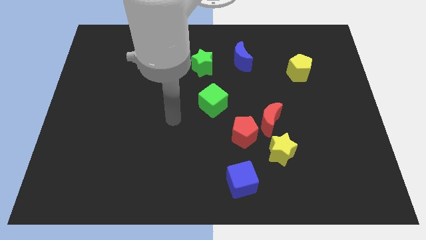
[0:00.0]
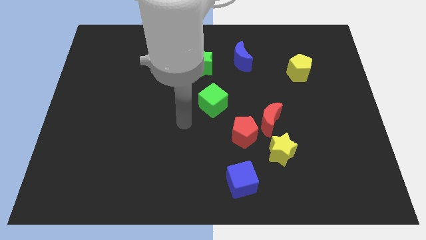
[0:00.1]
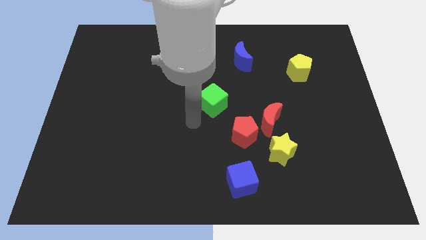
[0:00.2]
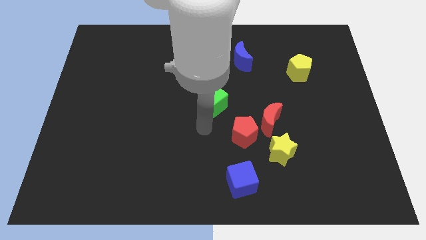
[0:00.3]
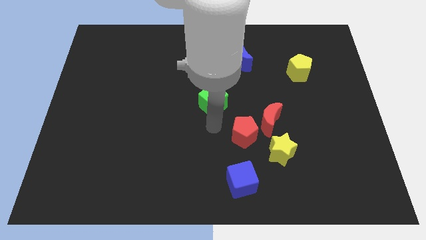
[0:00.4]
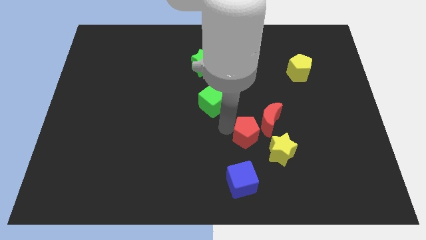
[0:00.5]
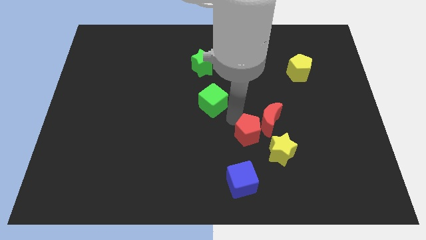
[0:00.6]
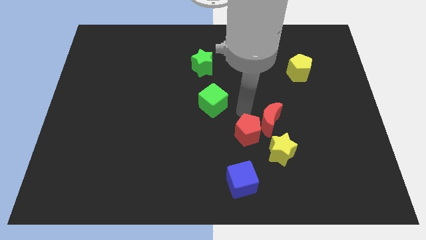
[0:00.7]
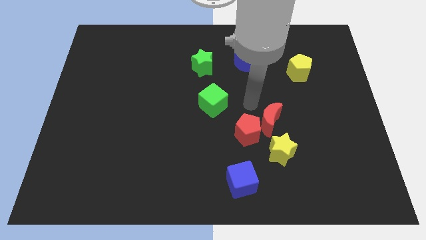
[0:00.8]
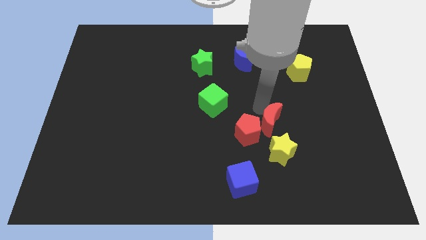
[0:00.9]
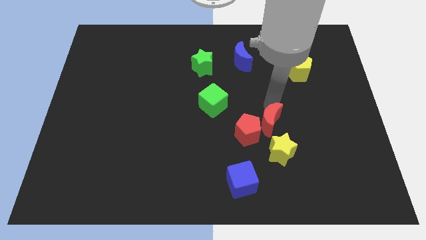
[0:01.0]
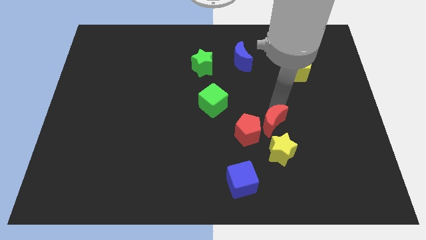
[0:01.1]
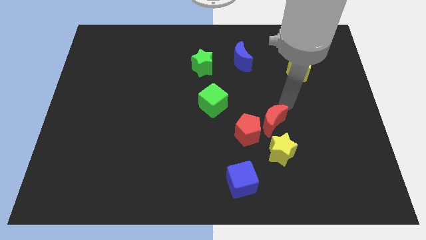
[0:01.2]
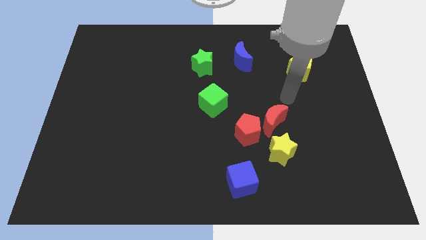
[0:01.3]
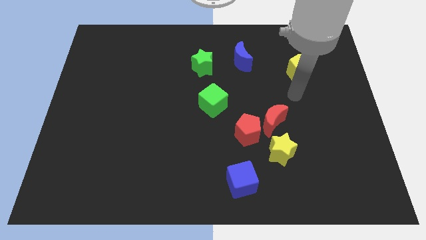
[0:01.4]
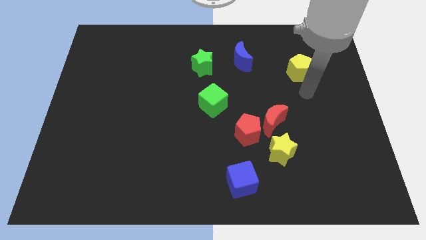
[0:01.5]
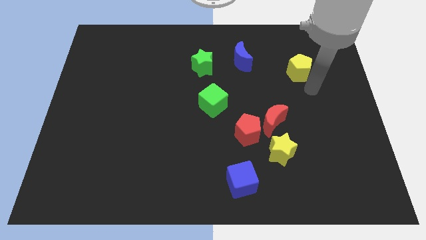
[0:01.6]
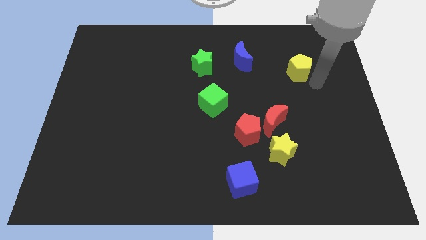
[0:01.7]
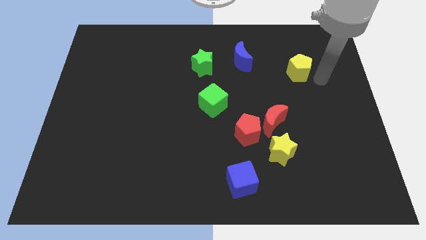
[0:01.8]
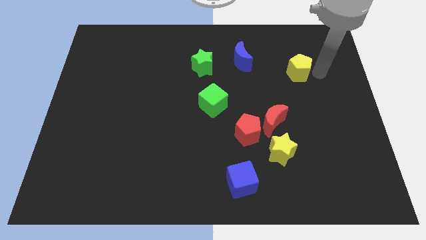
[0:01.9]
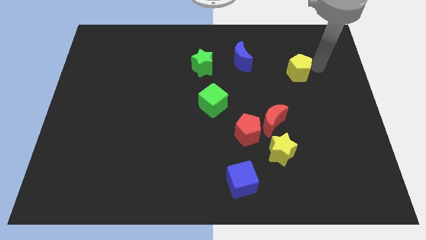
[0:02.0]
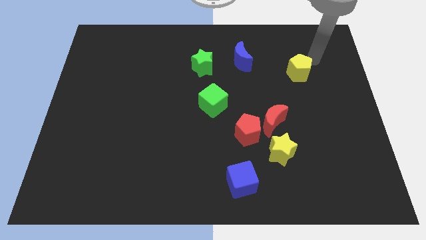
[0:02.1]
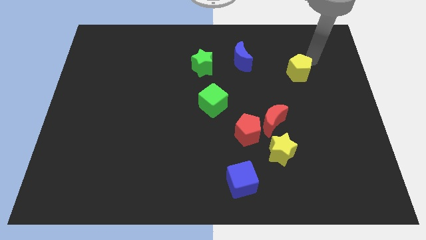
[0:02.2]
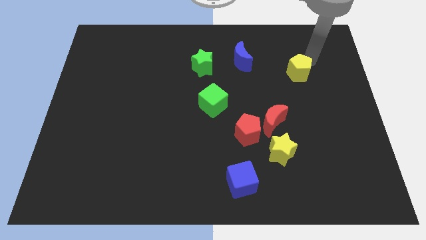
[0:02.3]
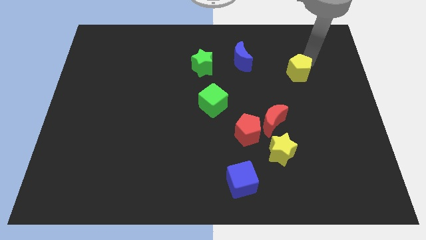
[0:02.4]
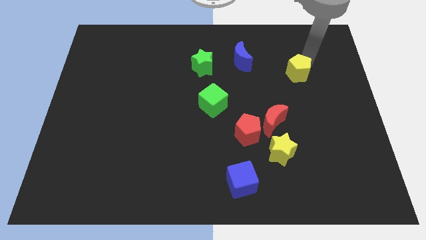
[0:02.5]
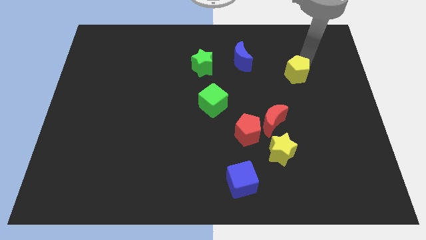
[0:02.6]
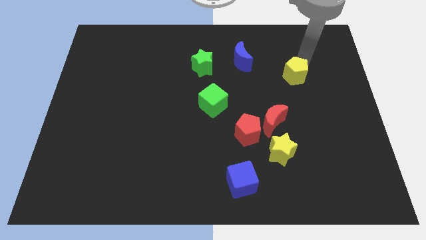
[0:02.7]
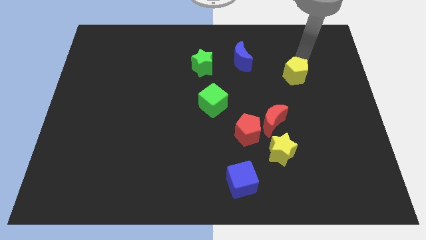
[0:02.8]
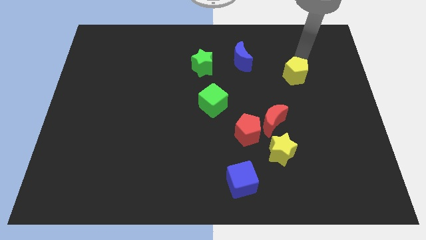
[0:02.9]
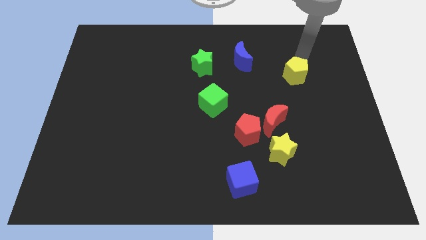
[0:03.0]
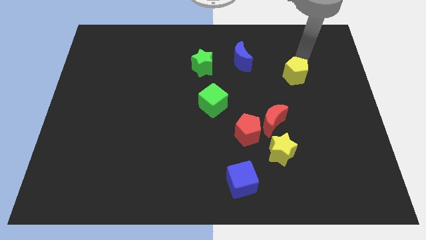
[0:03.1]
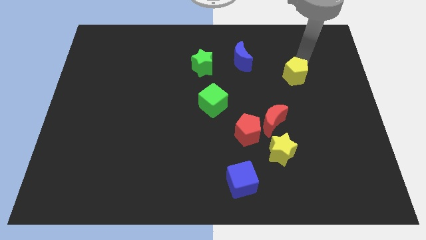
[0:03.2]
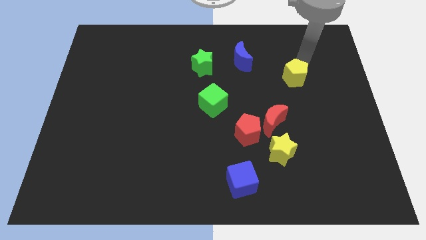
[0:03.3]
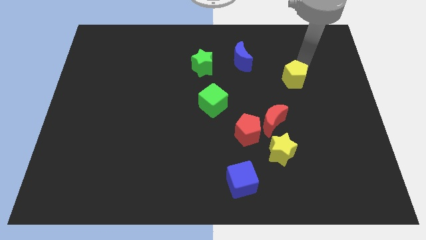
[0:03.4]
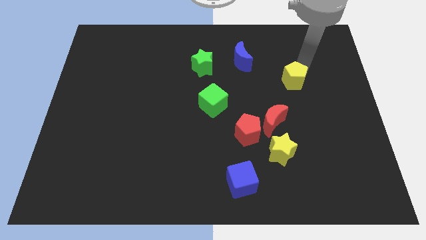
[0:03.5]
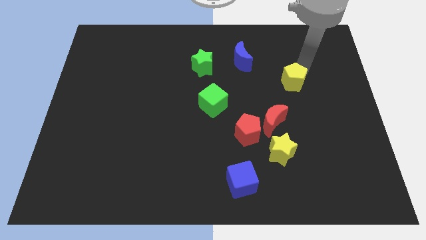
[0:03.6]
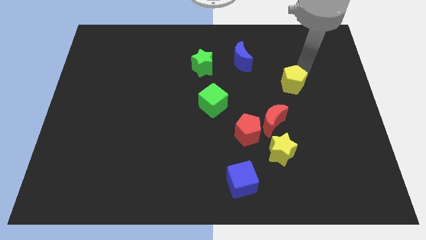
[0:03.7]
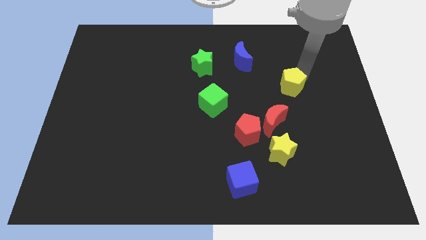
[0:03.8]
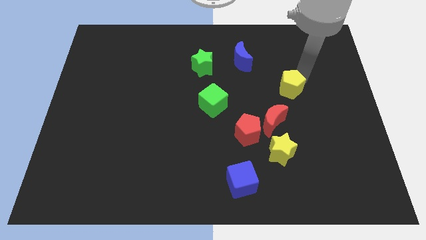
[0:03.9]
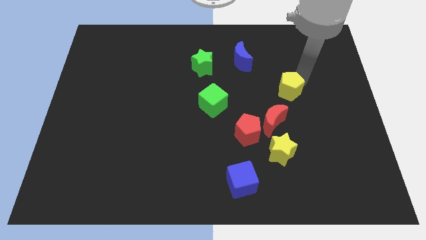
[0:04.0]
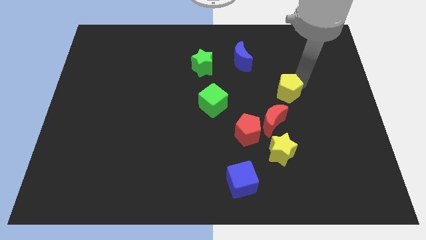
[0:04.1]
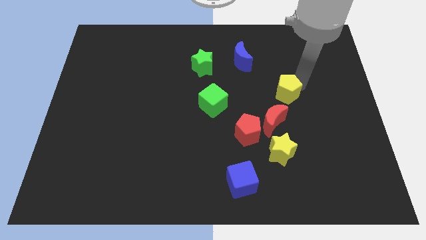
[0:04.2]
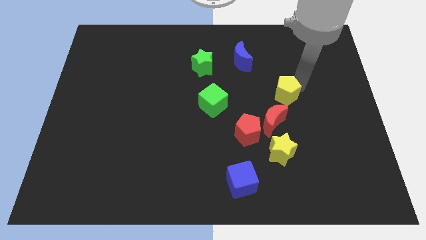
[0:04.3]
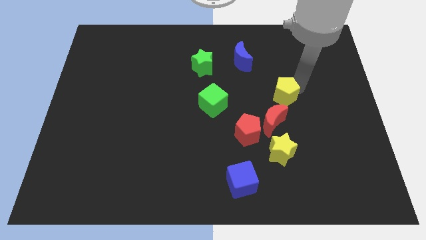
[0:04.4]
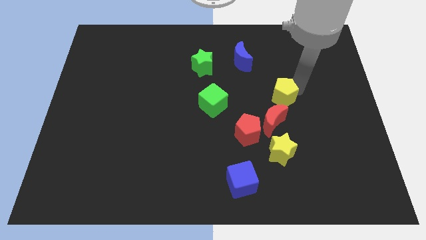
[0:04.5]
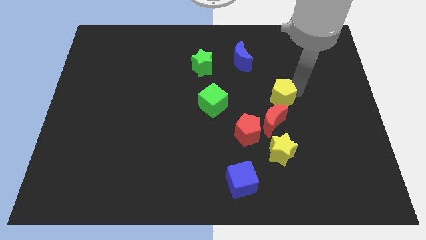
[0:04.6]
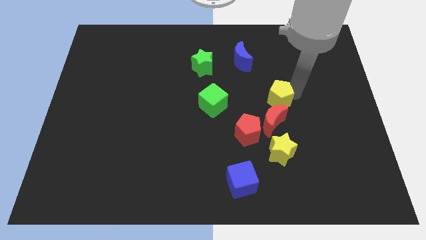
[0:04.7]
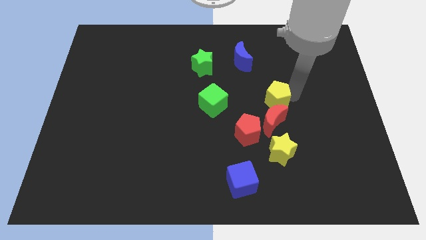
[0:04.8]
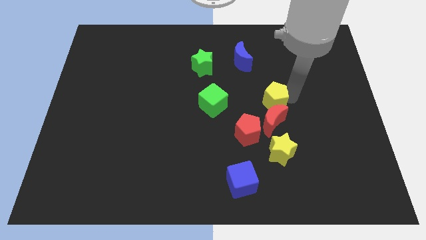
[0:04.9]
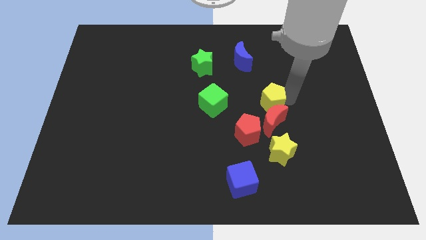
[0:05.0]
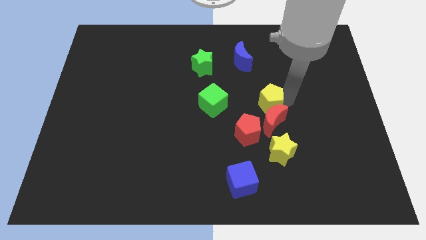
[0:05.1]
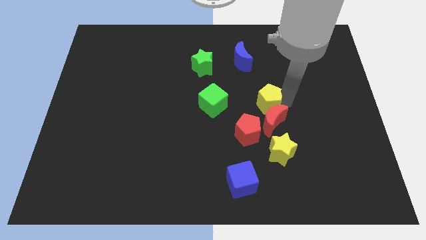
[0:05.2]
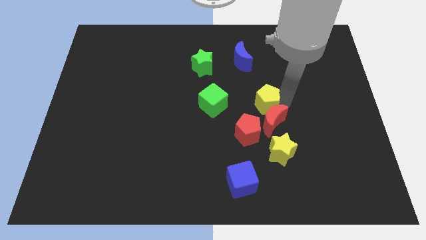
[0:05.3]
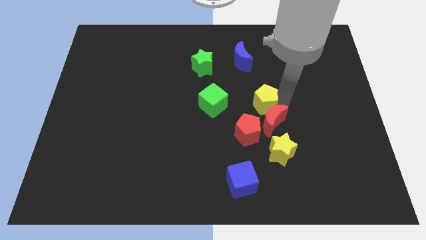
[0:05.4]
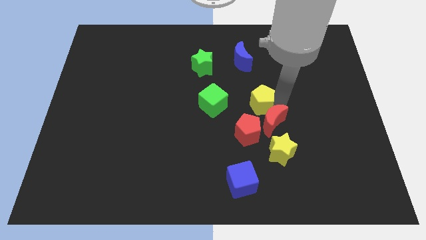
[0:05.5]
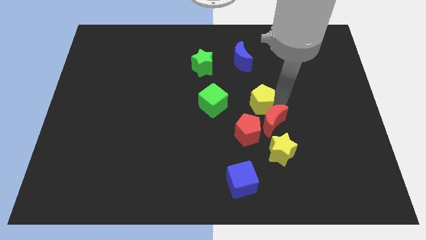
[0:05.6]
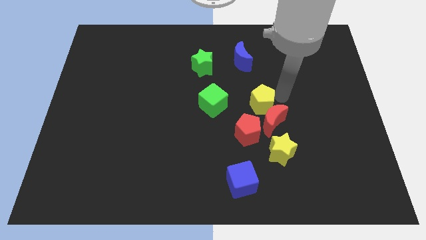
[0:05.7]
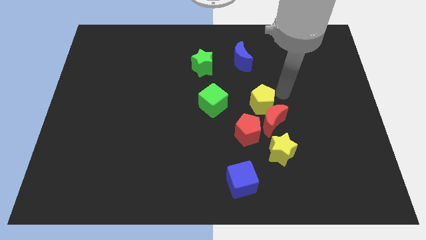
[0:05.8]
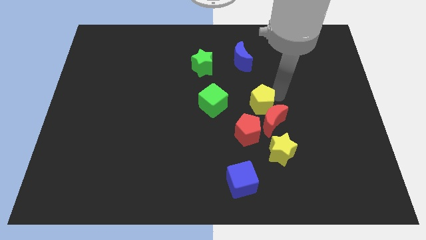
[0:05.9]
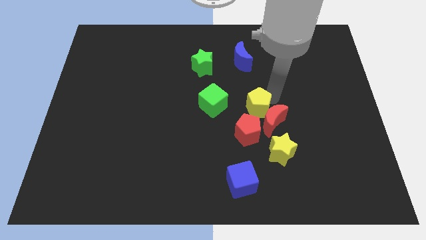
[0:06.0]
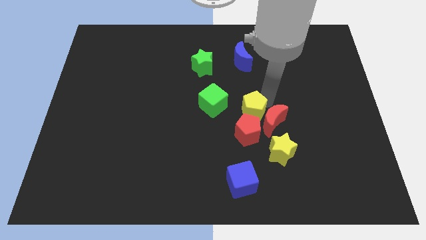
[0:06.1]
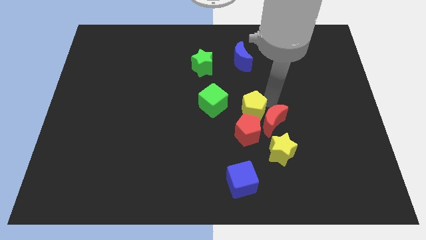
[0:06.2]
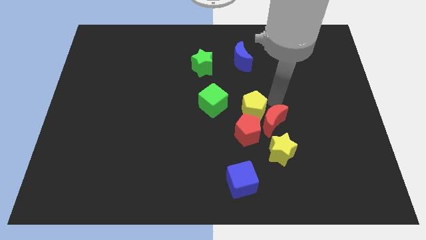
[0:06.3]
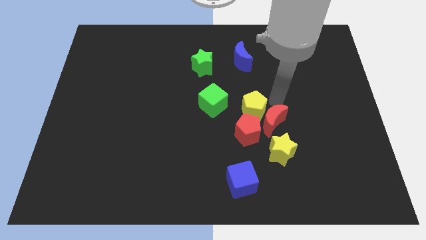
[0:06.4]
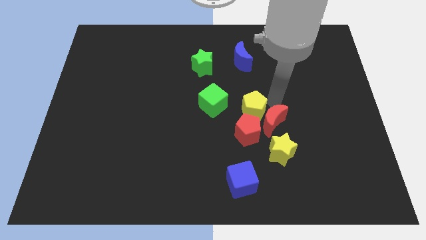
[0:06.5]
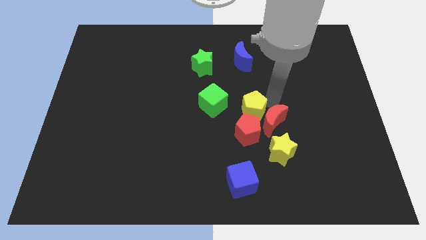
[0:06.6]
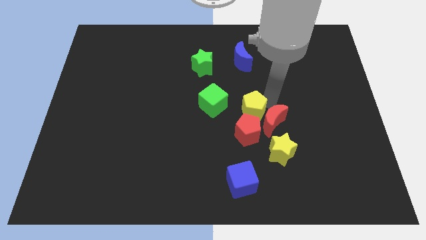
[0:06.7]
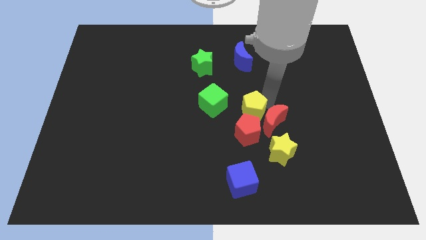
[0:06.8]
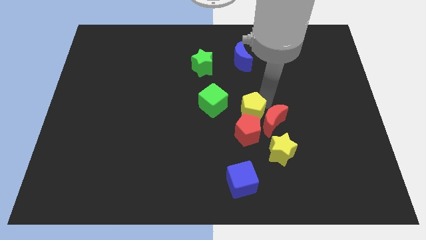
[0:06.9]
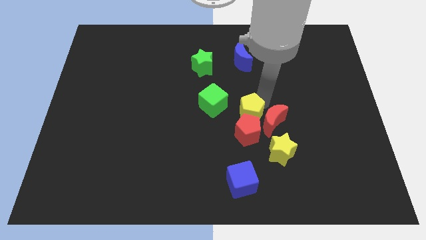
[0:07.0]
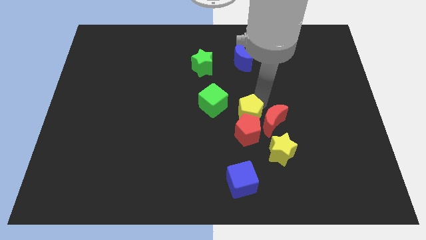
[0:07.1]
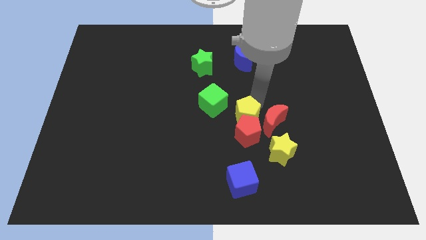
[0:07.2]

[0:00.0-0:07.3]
slide the yellow pentagon down and then to the left

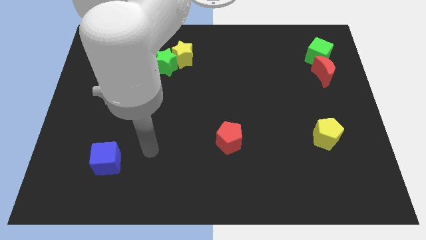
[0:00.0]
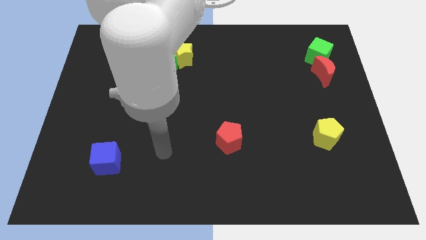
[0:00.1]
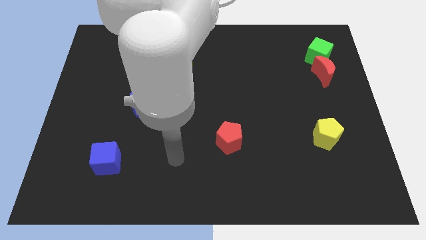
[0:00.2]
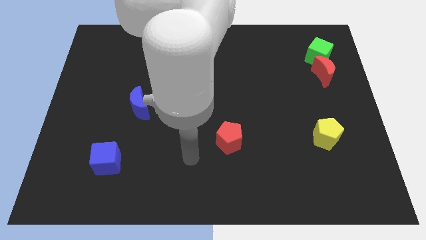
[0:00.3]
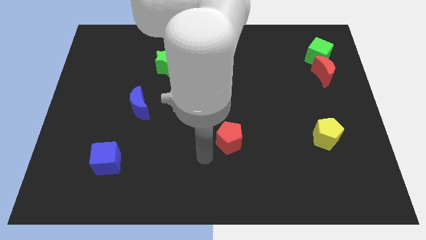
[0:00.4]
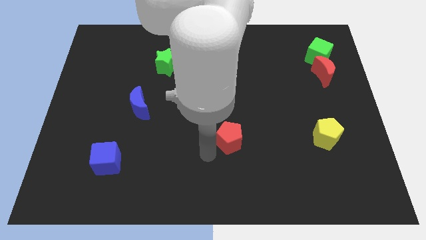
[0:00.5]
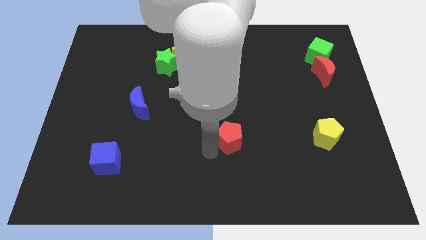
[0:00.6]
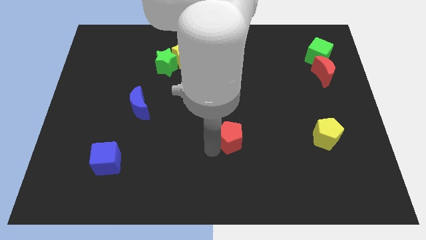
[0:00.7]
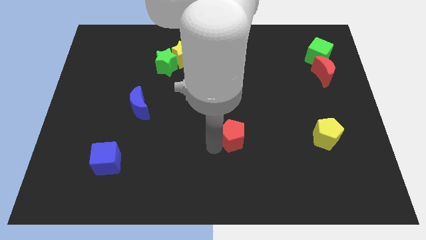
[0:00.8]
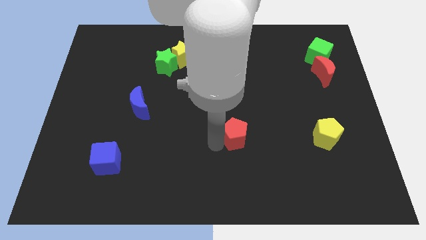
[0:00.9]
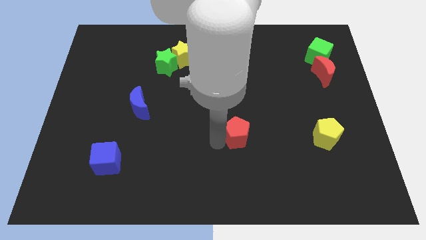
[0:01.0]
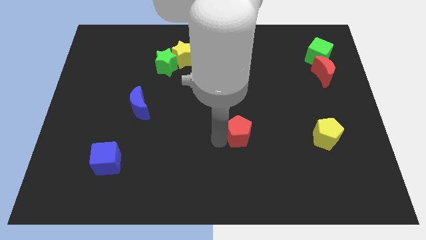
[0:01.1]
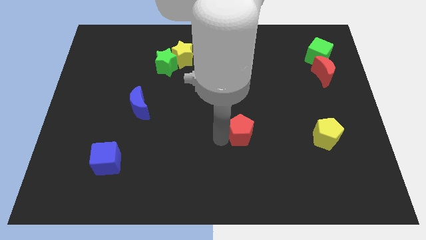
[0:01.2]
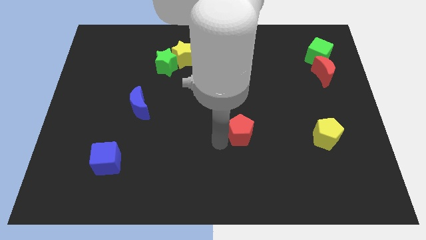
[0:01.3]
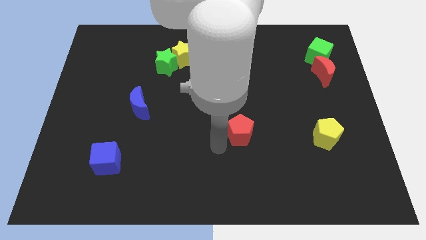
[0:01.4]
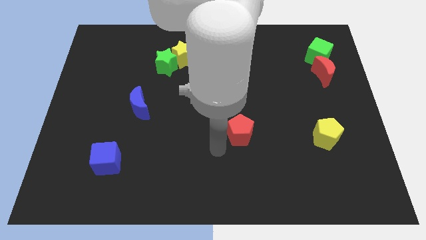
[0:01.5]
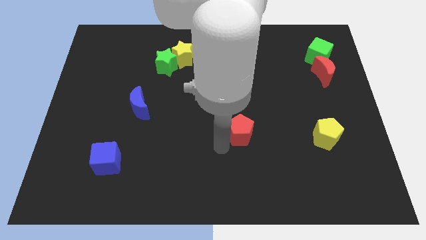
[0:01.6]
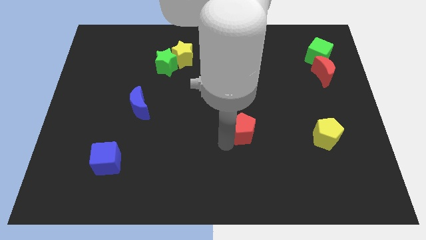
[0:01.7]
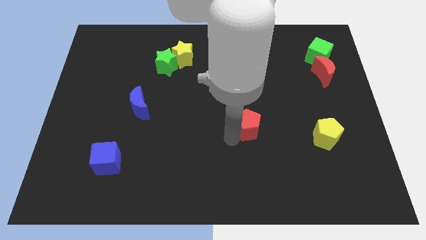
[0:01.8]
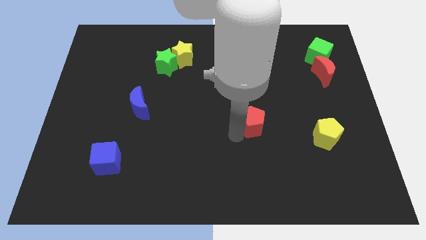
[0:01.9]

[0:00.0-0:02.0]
move the red pentagon a bit diagonally up and to the right
